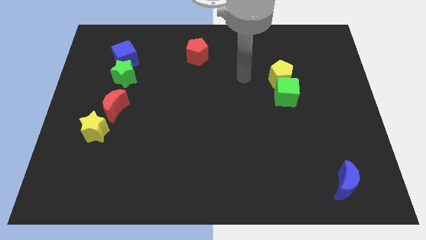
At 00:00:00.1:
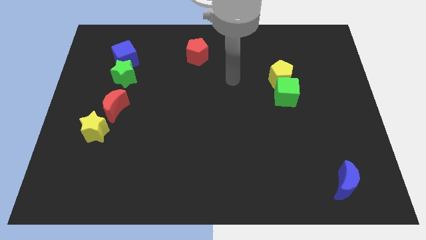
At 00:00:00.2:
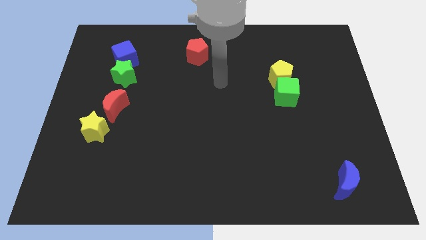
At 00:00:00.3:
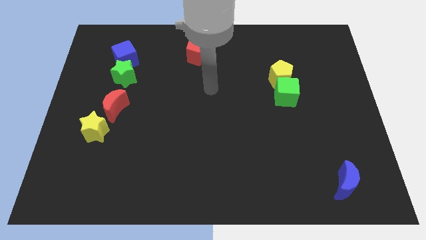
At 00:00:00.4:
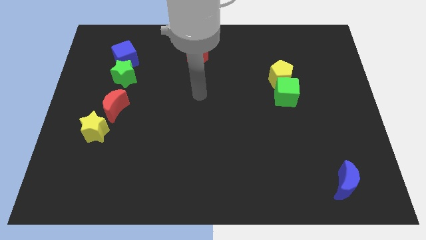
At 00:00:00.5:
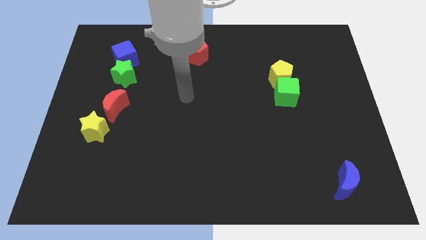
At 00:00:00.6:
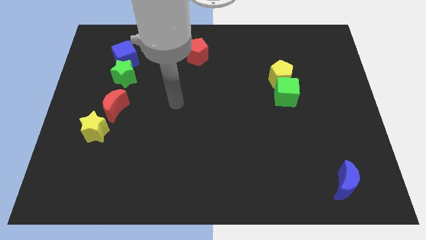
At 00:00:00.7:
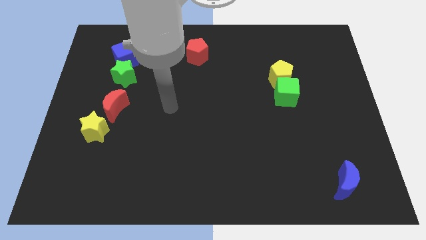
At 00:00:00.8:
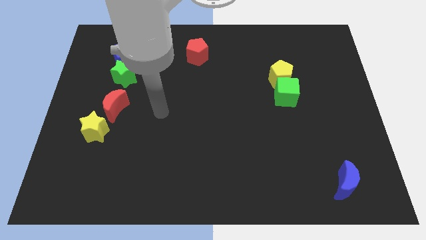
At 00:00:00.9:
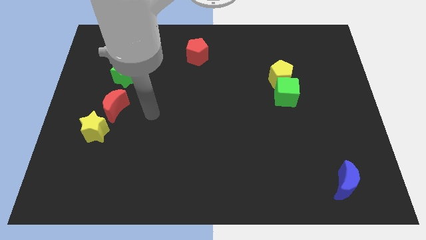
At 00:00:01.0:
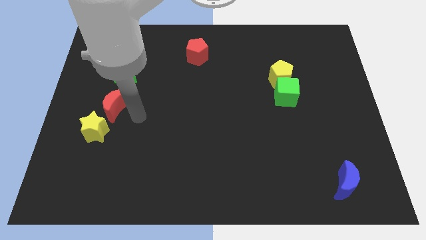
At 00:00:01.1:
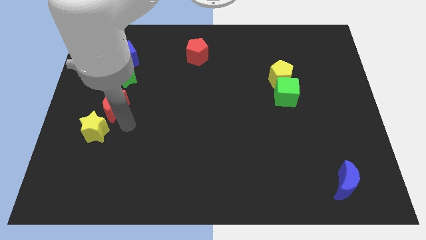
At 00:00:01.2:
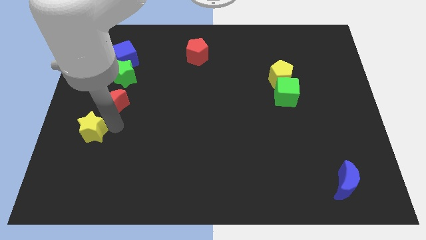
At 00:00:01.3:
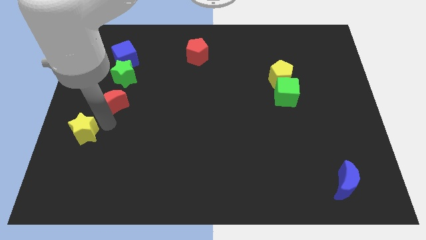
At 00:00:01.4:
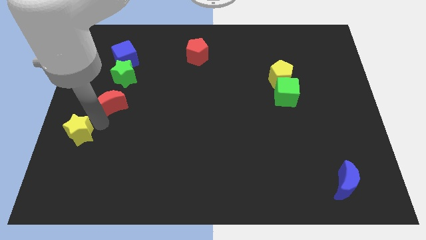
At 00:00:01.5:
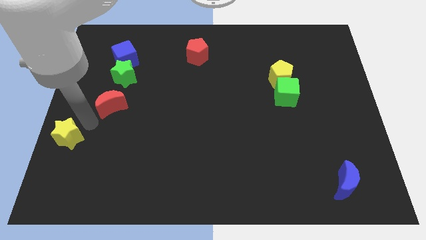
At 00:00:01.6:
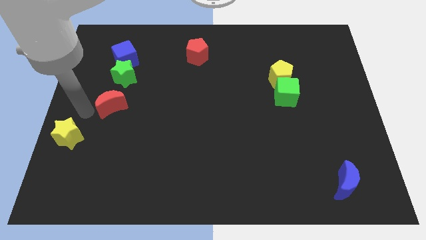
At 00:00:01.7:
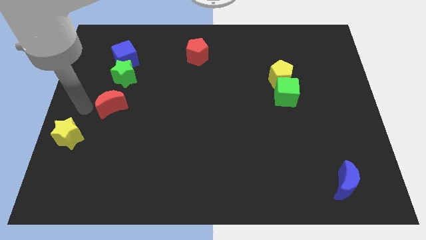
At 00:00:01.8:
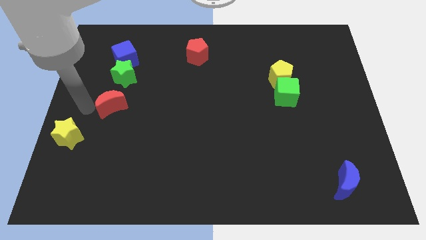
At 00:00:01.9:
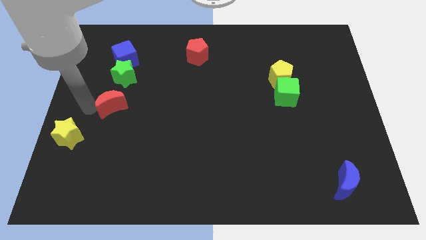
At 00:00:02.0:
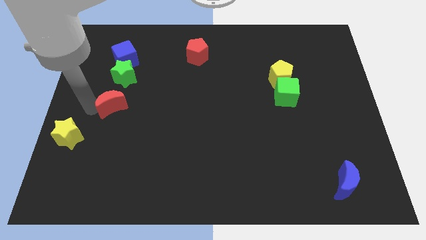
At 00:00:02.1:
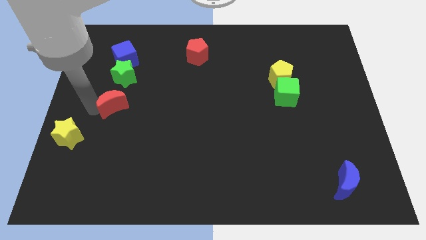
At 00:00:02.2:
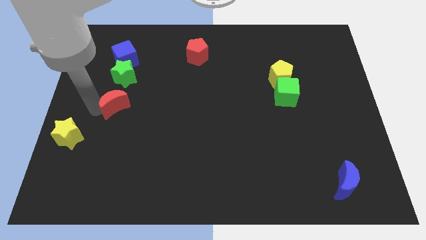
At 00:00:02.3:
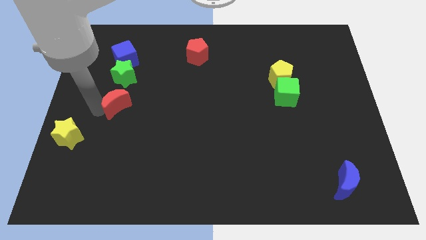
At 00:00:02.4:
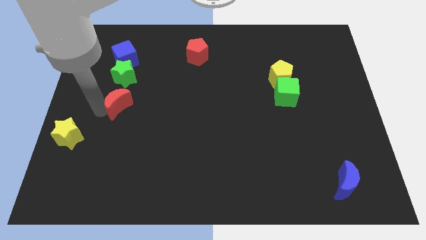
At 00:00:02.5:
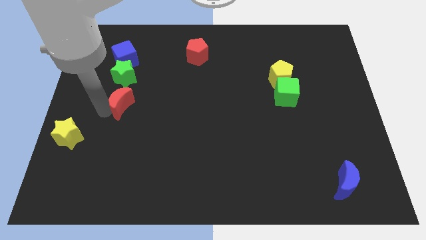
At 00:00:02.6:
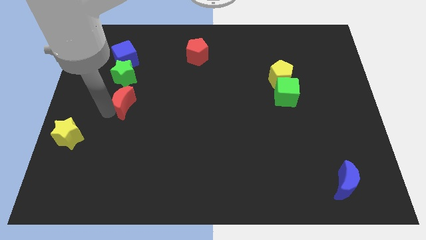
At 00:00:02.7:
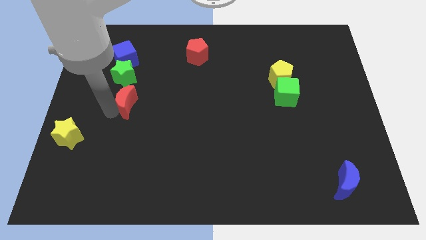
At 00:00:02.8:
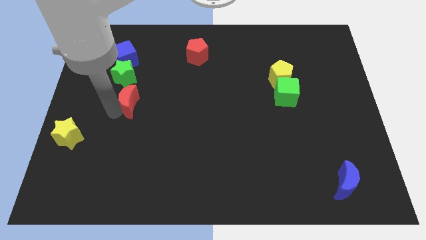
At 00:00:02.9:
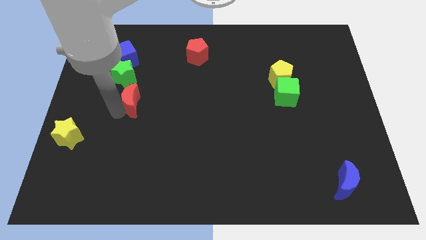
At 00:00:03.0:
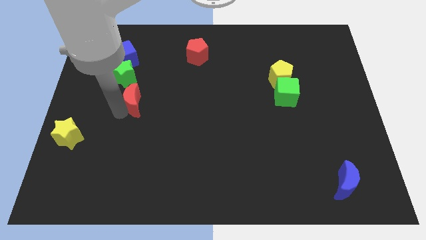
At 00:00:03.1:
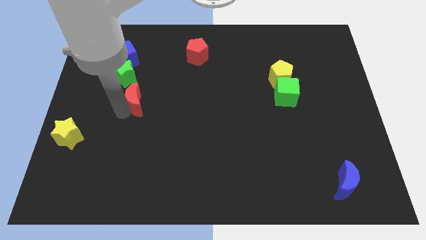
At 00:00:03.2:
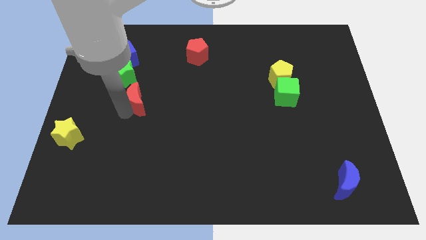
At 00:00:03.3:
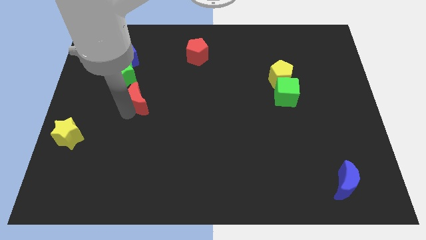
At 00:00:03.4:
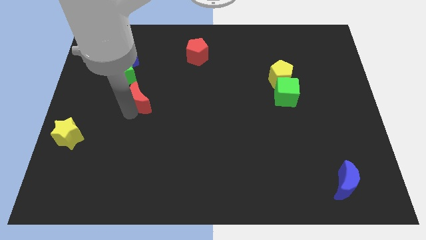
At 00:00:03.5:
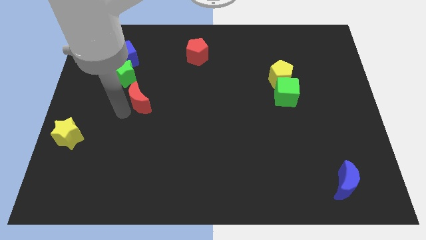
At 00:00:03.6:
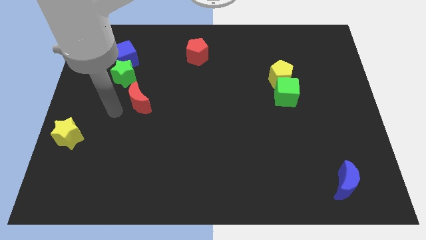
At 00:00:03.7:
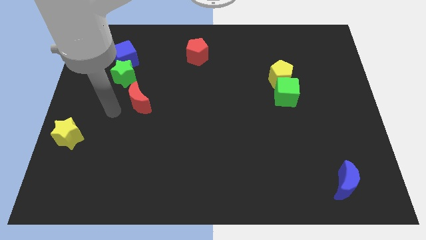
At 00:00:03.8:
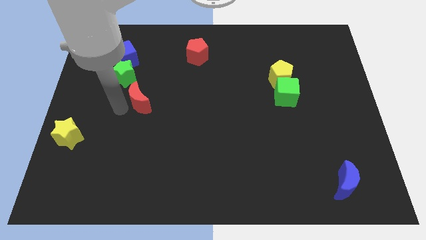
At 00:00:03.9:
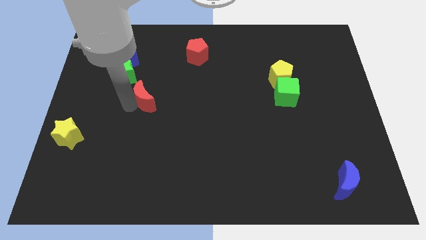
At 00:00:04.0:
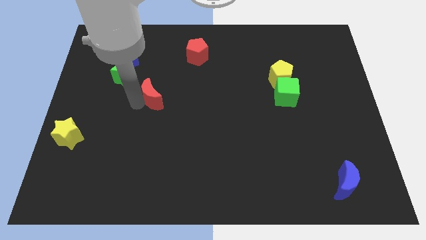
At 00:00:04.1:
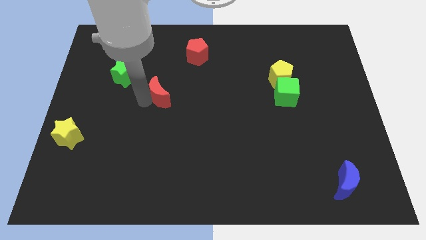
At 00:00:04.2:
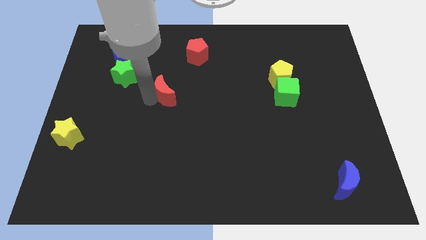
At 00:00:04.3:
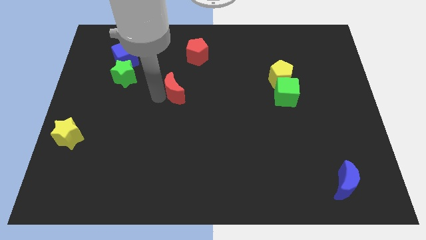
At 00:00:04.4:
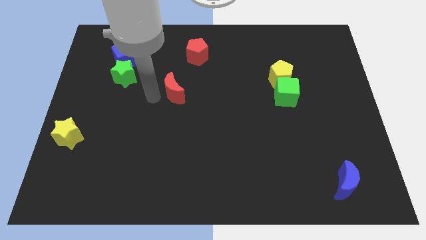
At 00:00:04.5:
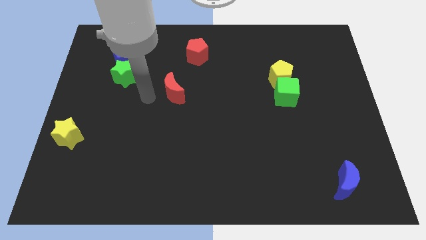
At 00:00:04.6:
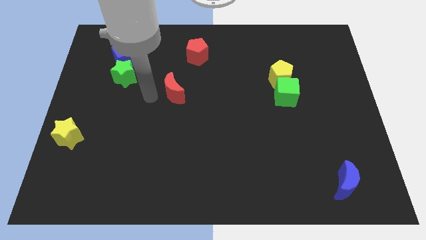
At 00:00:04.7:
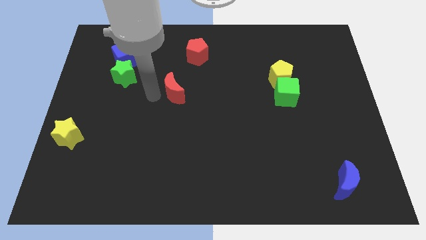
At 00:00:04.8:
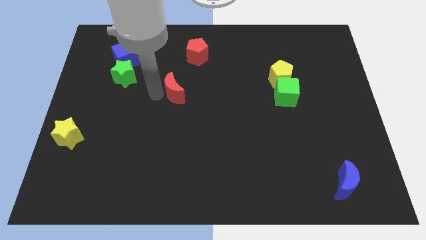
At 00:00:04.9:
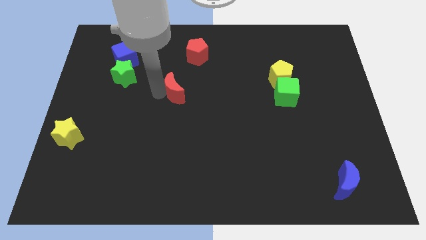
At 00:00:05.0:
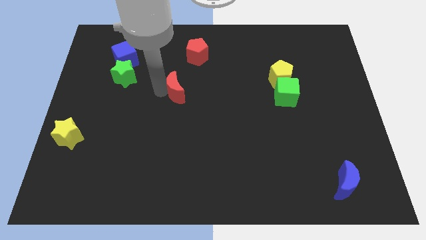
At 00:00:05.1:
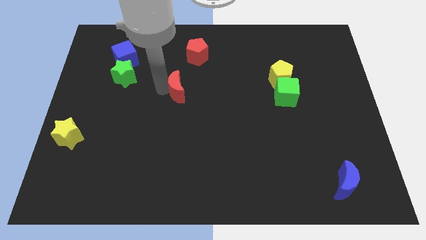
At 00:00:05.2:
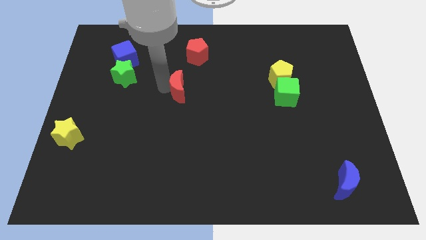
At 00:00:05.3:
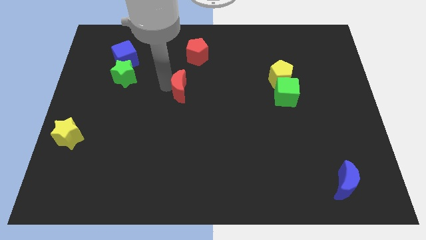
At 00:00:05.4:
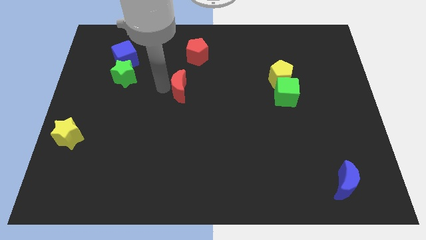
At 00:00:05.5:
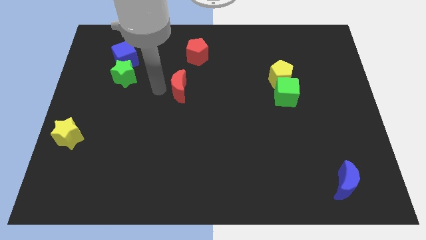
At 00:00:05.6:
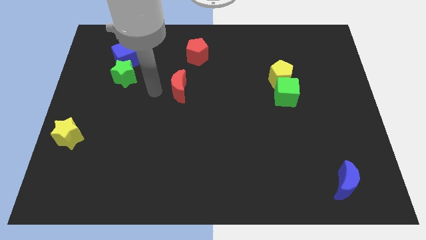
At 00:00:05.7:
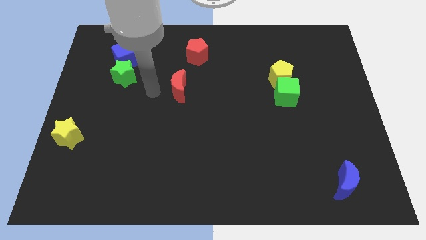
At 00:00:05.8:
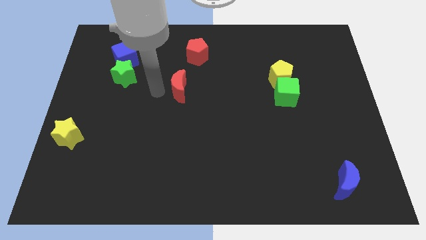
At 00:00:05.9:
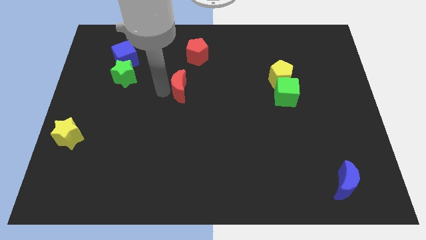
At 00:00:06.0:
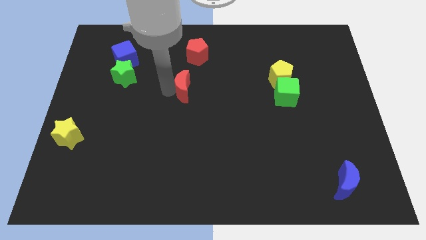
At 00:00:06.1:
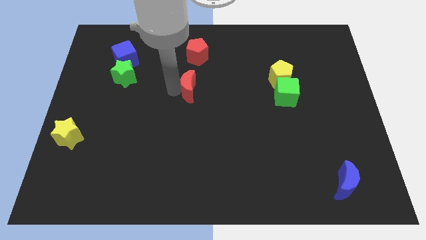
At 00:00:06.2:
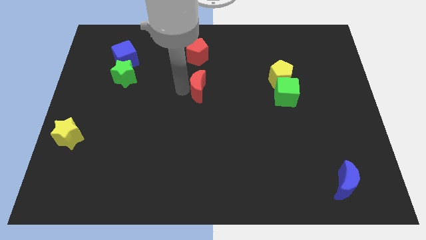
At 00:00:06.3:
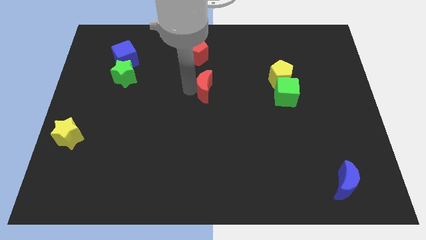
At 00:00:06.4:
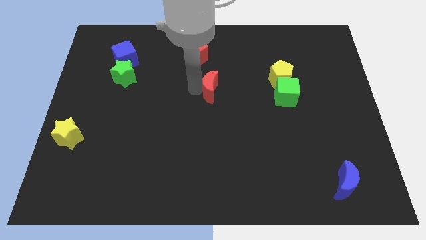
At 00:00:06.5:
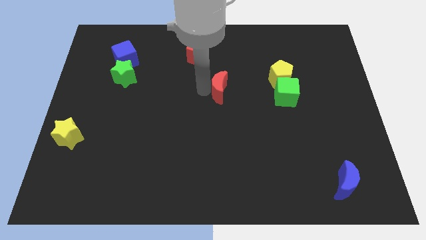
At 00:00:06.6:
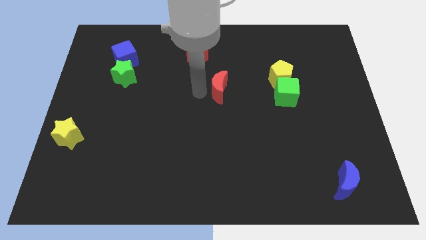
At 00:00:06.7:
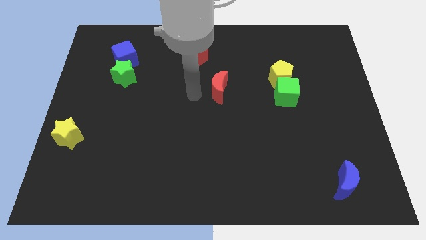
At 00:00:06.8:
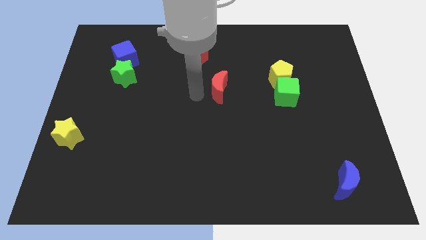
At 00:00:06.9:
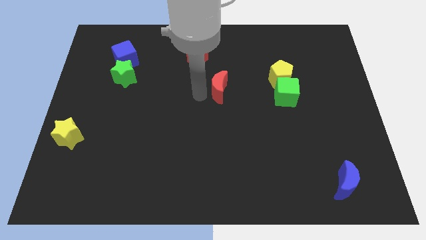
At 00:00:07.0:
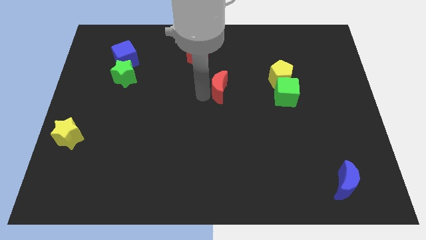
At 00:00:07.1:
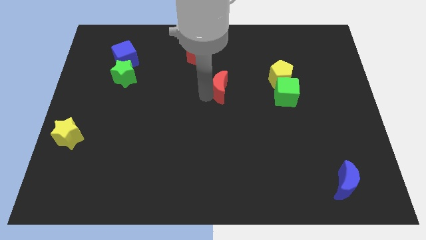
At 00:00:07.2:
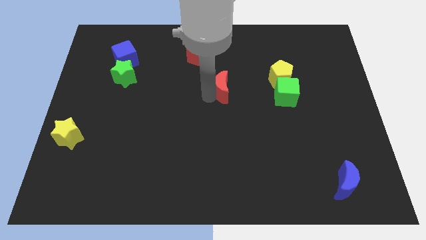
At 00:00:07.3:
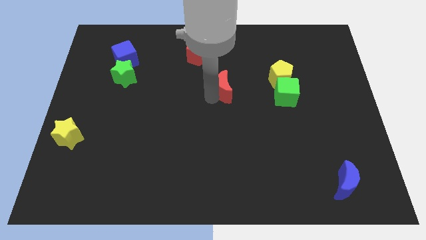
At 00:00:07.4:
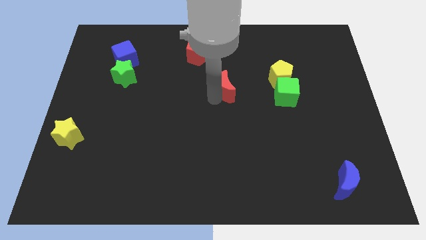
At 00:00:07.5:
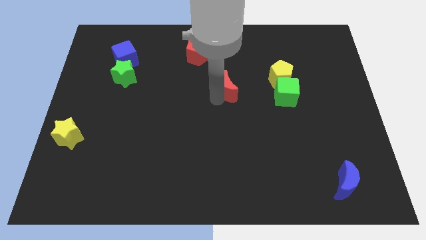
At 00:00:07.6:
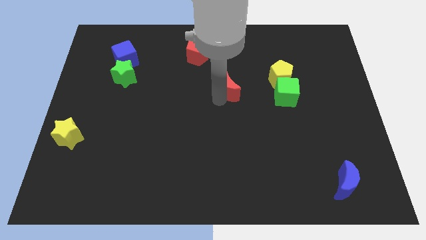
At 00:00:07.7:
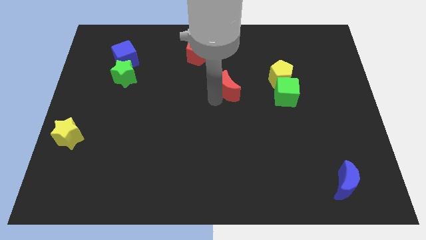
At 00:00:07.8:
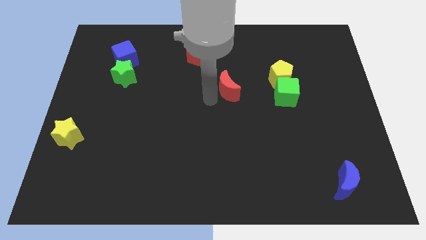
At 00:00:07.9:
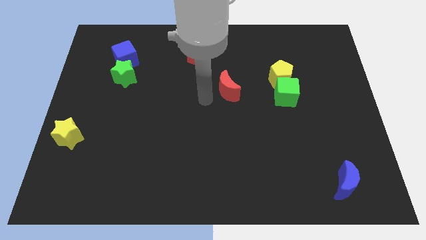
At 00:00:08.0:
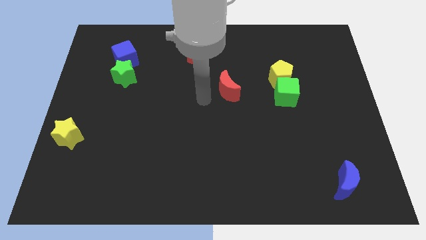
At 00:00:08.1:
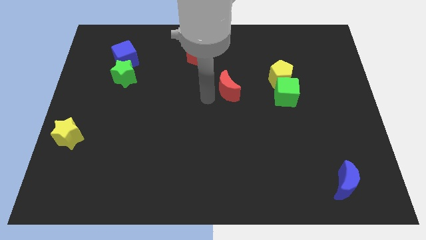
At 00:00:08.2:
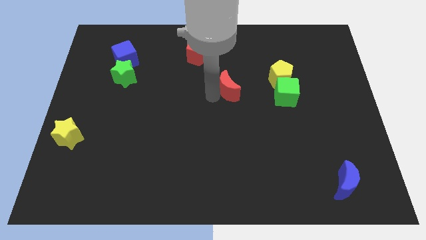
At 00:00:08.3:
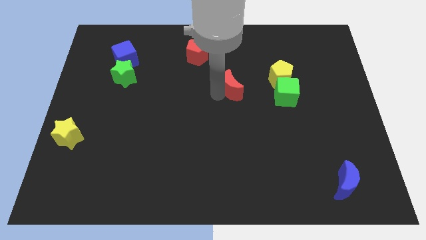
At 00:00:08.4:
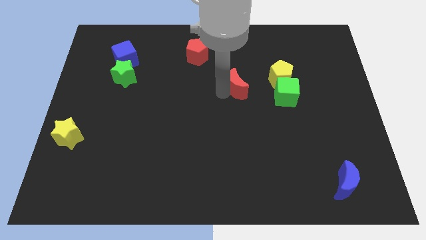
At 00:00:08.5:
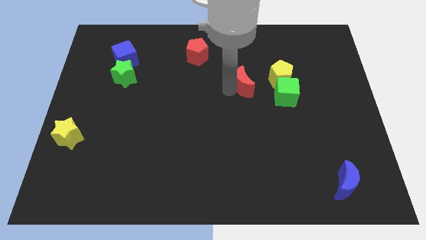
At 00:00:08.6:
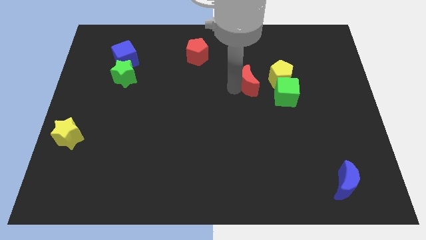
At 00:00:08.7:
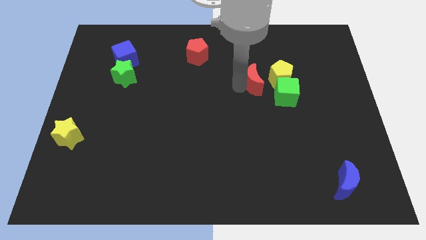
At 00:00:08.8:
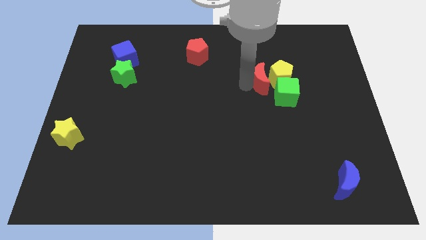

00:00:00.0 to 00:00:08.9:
move the red moon close to the yellow pentagon
